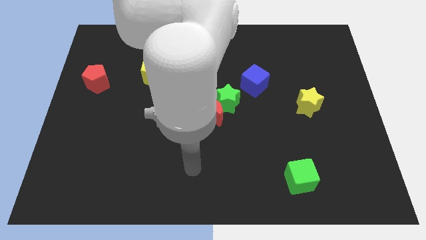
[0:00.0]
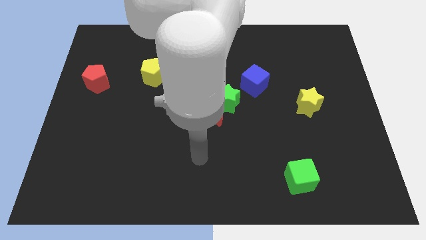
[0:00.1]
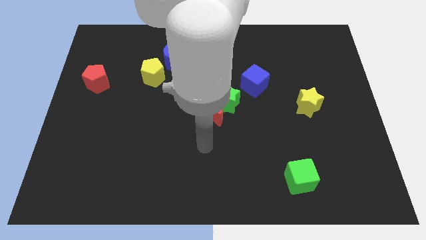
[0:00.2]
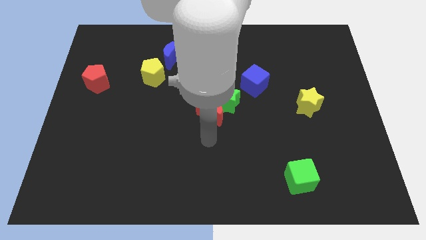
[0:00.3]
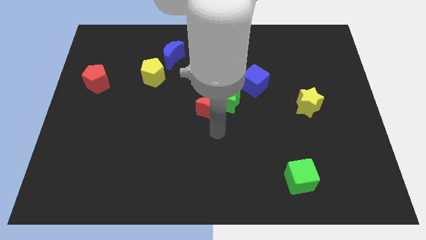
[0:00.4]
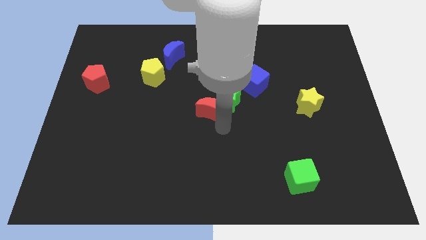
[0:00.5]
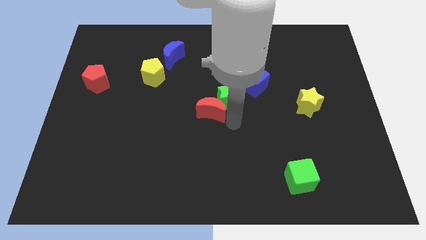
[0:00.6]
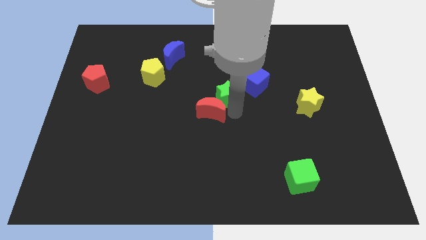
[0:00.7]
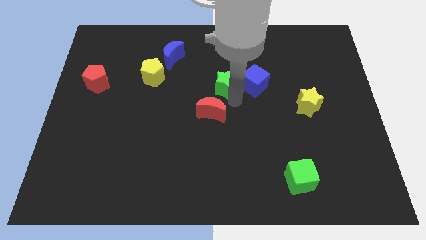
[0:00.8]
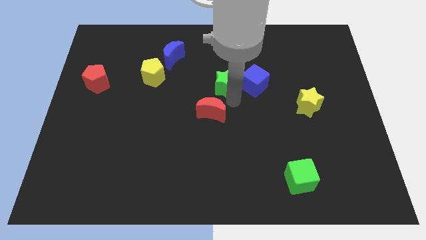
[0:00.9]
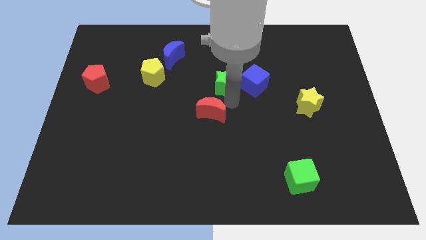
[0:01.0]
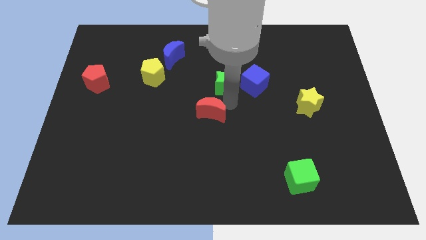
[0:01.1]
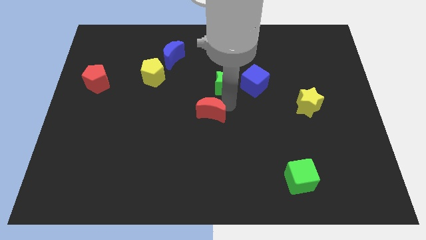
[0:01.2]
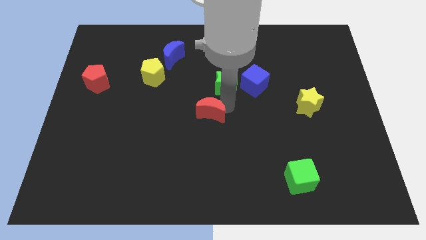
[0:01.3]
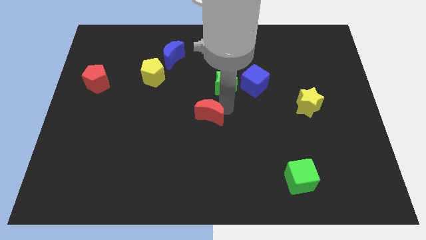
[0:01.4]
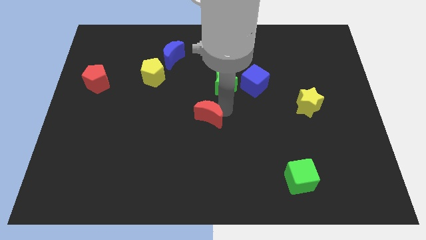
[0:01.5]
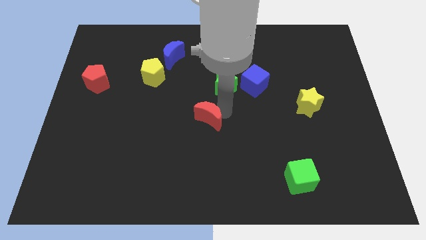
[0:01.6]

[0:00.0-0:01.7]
separate the red moon from the green star

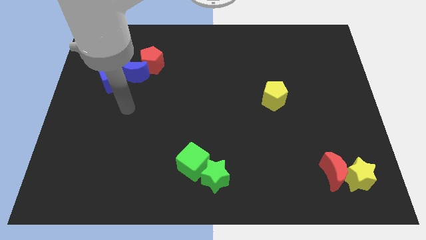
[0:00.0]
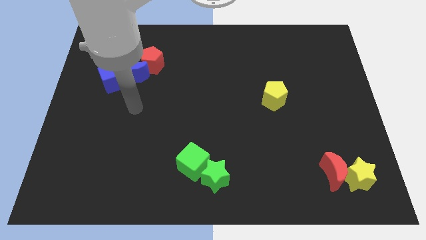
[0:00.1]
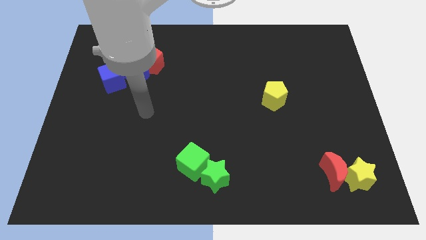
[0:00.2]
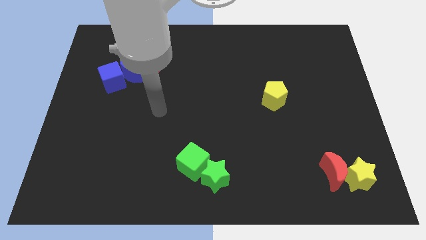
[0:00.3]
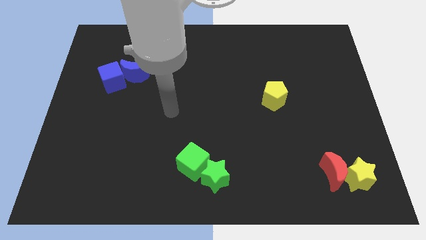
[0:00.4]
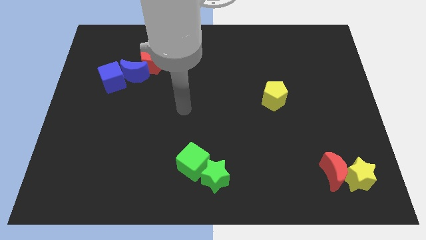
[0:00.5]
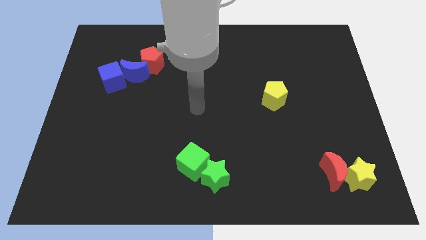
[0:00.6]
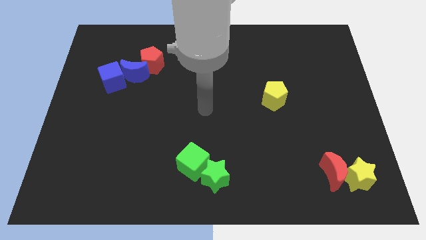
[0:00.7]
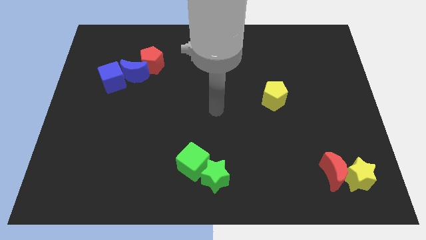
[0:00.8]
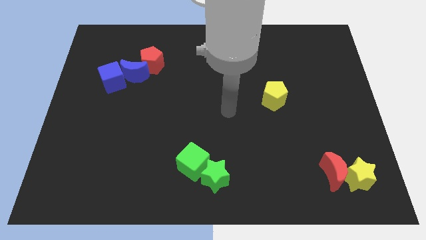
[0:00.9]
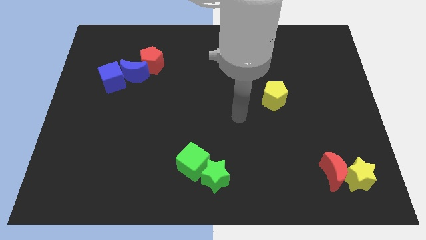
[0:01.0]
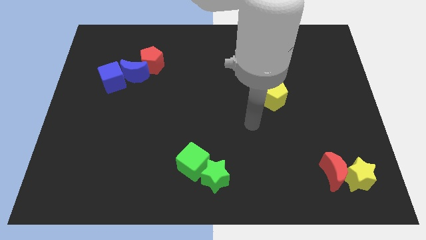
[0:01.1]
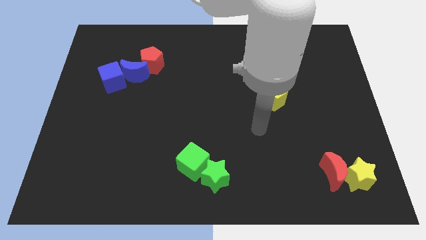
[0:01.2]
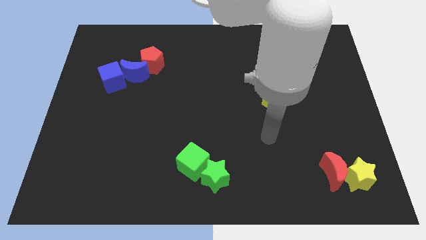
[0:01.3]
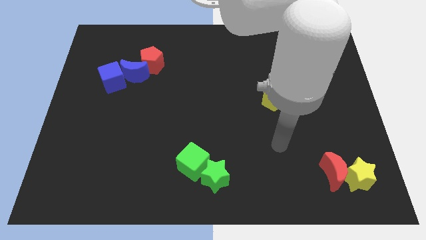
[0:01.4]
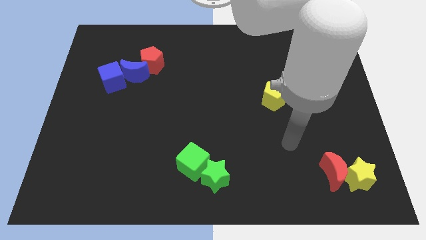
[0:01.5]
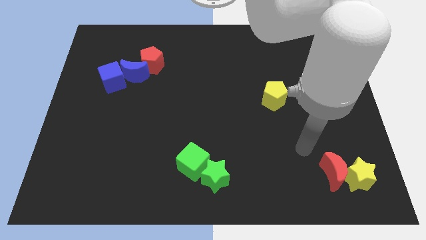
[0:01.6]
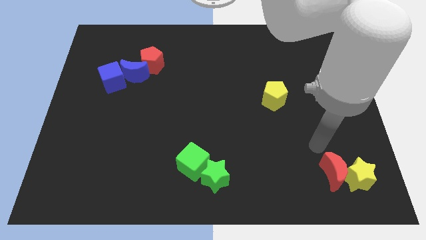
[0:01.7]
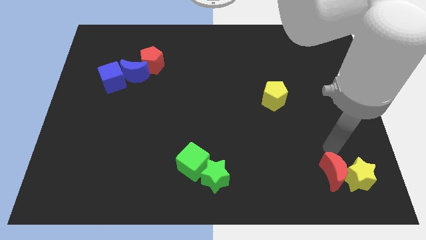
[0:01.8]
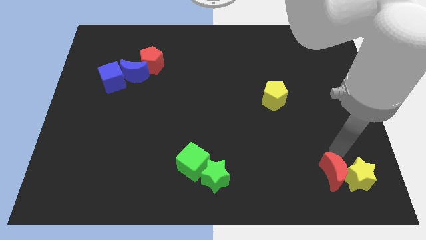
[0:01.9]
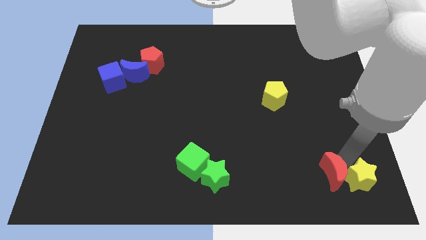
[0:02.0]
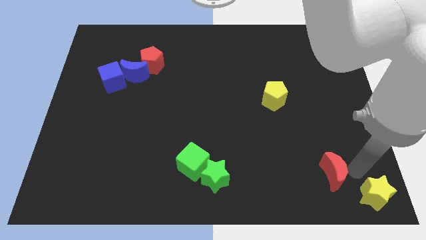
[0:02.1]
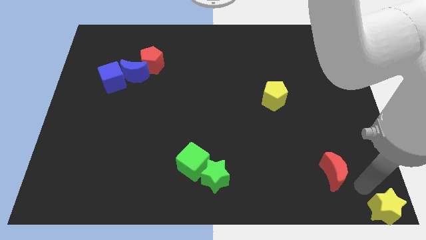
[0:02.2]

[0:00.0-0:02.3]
move the red moon away from the yellow star

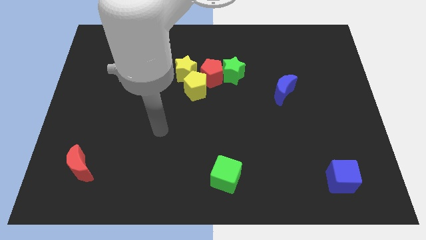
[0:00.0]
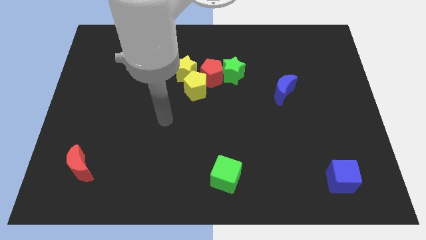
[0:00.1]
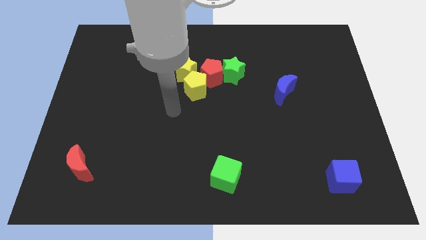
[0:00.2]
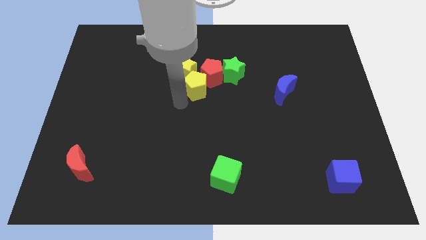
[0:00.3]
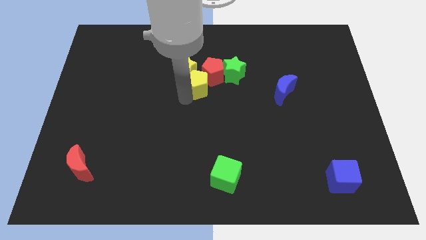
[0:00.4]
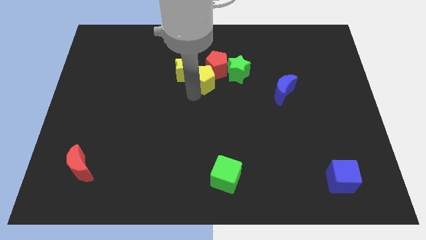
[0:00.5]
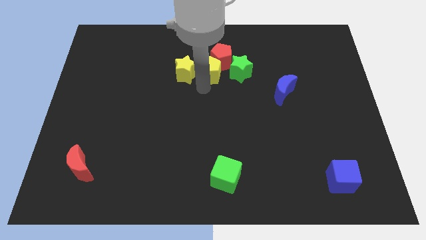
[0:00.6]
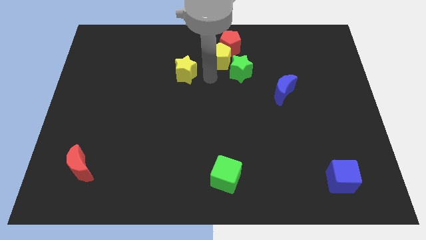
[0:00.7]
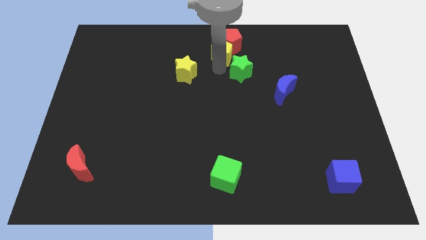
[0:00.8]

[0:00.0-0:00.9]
separate the green star from the red pentagon

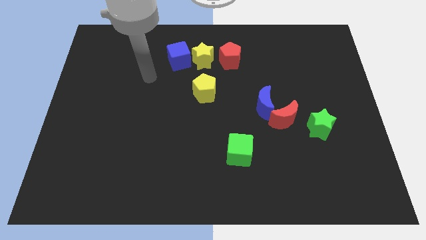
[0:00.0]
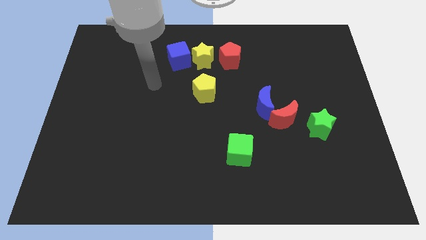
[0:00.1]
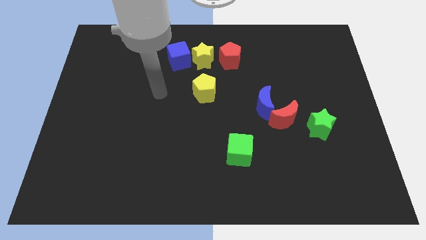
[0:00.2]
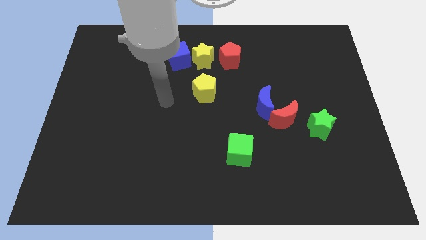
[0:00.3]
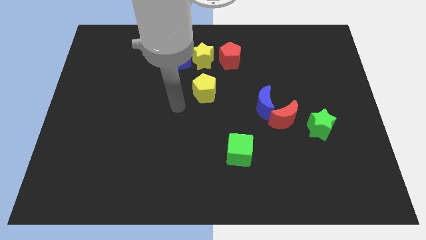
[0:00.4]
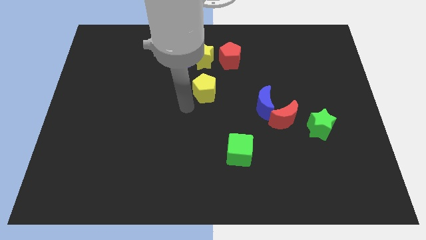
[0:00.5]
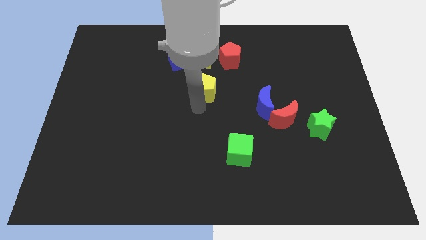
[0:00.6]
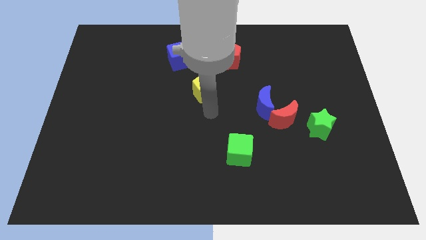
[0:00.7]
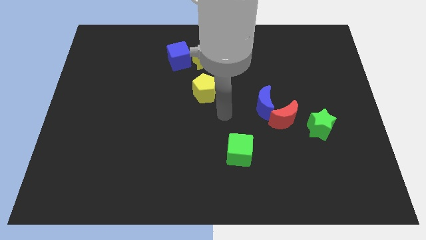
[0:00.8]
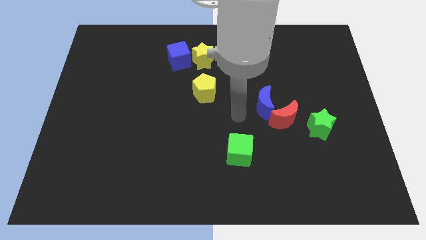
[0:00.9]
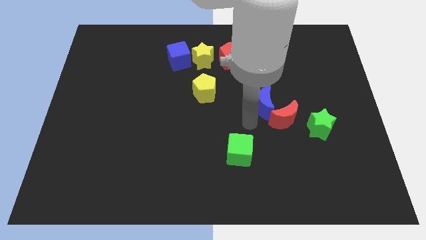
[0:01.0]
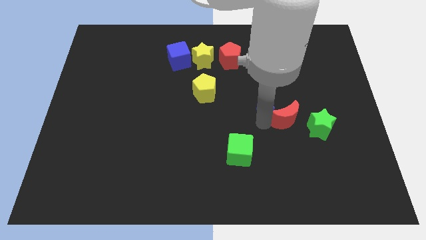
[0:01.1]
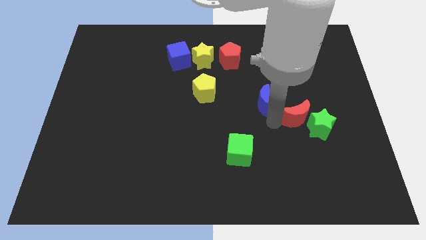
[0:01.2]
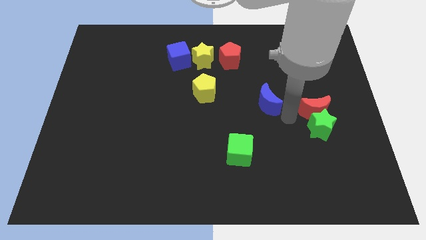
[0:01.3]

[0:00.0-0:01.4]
move the blue moon away from the red moon

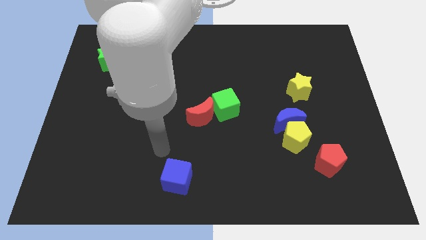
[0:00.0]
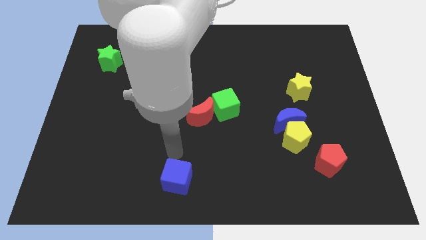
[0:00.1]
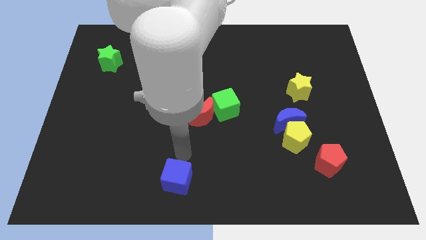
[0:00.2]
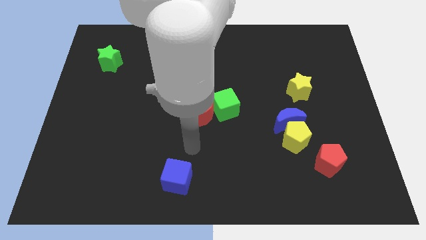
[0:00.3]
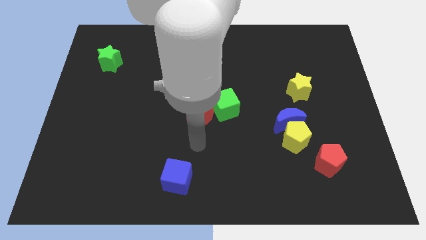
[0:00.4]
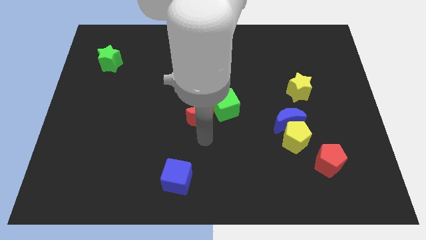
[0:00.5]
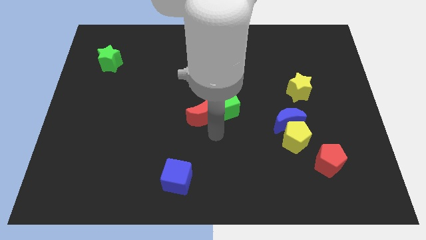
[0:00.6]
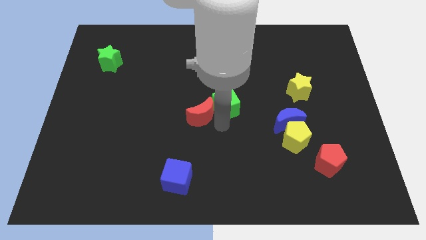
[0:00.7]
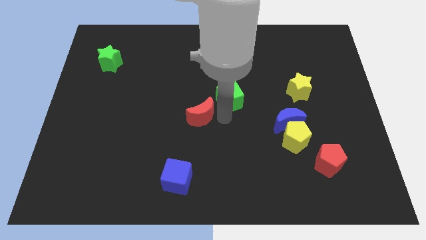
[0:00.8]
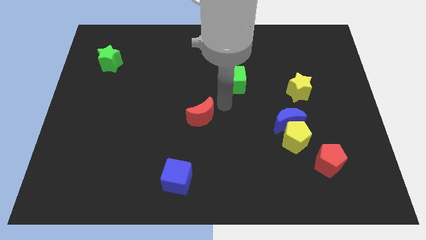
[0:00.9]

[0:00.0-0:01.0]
pull the red moon apart from the green cube

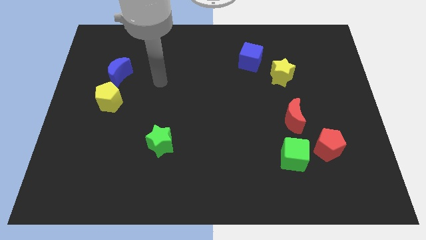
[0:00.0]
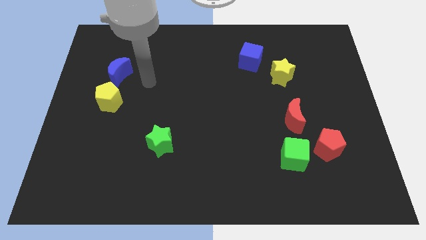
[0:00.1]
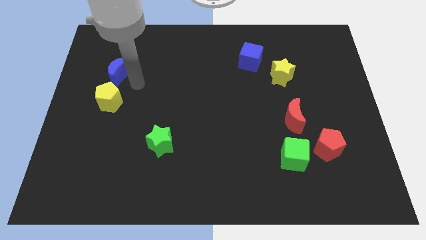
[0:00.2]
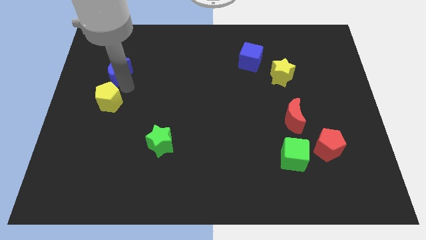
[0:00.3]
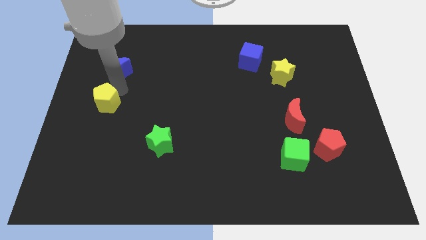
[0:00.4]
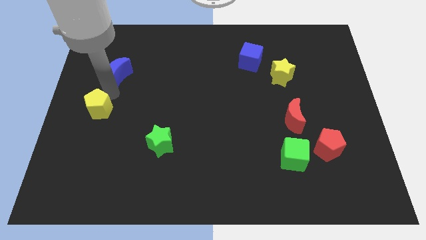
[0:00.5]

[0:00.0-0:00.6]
separate the blue moon from the yellow pentagon

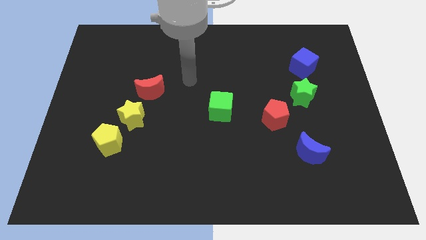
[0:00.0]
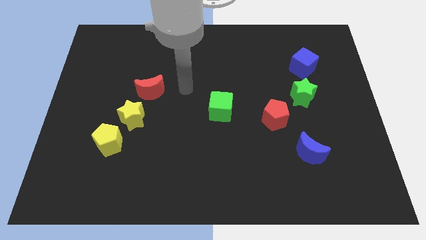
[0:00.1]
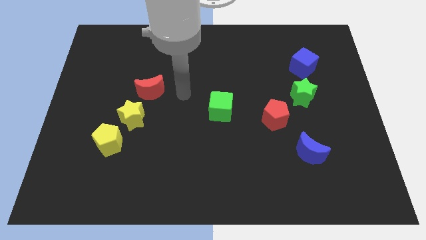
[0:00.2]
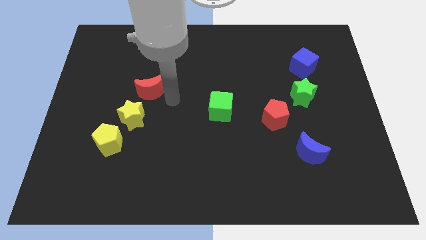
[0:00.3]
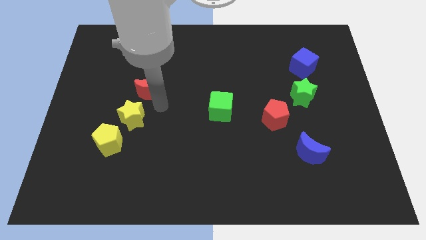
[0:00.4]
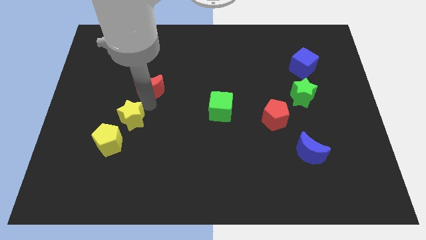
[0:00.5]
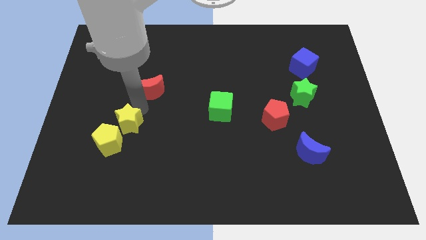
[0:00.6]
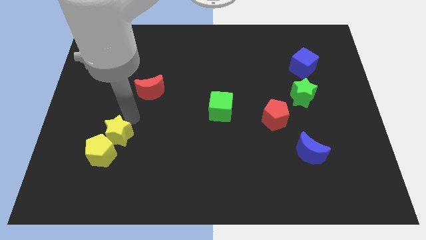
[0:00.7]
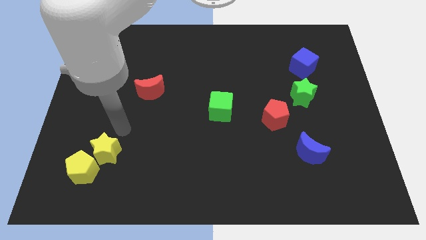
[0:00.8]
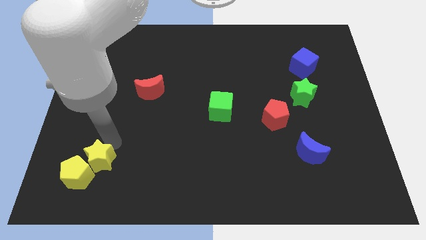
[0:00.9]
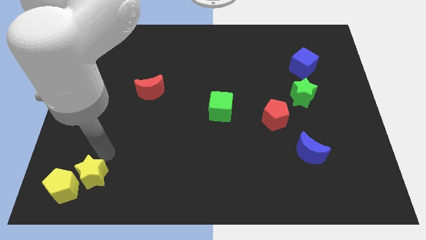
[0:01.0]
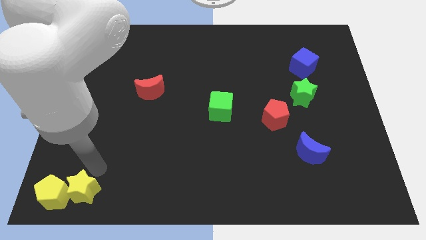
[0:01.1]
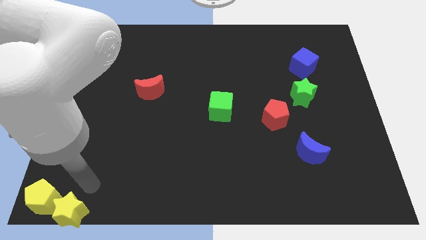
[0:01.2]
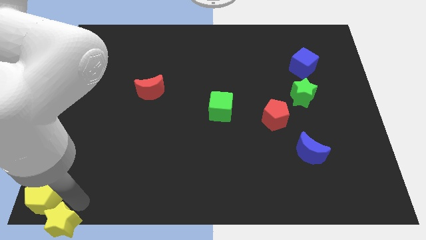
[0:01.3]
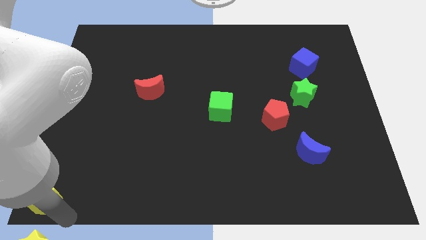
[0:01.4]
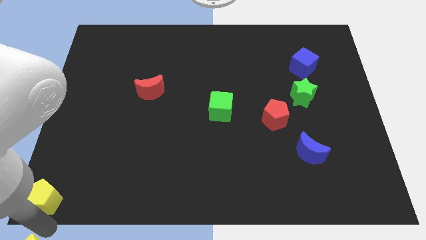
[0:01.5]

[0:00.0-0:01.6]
move the yellow pentagon away from the yellow star
